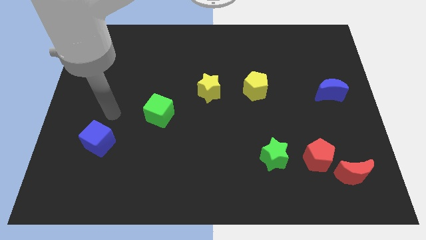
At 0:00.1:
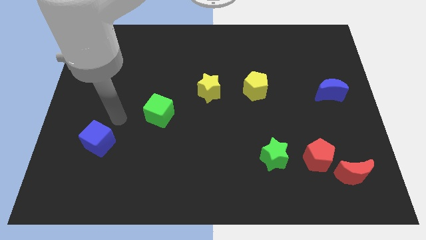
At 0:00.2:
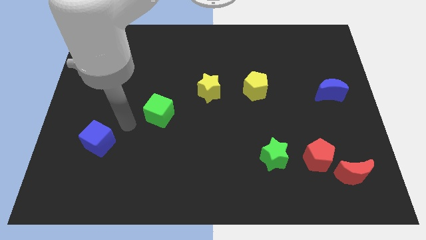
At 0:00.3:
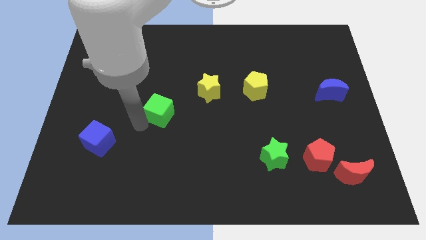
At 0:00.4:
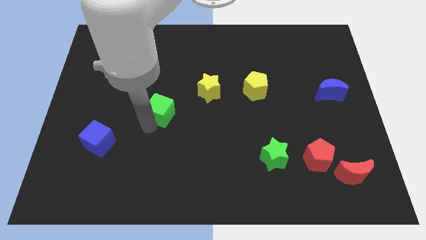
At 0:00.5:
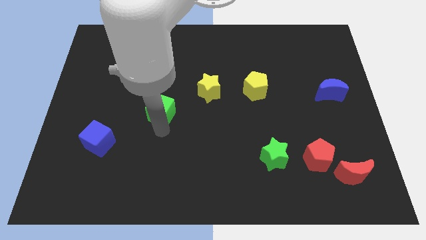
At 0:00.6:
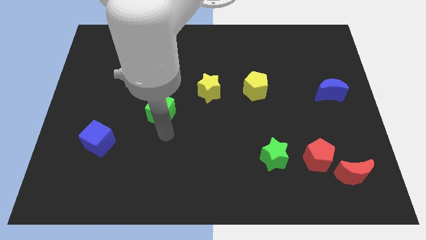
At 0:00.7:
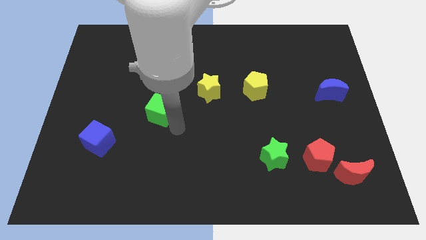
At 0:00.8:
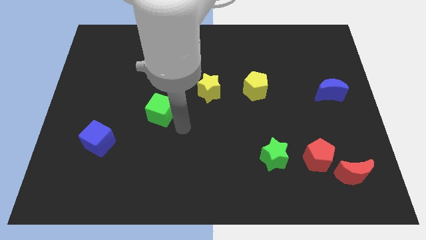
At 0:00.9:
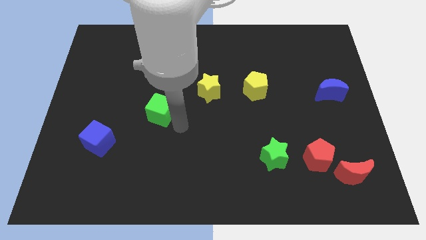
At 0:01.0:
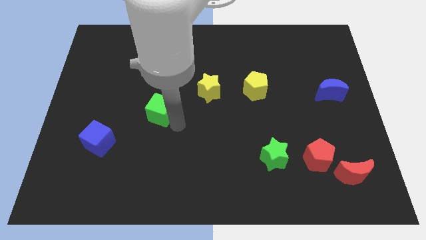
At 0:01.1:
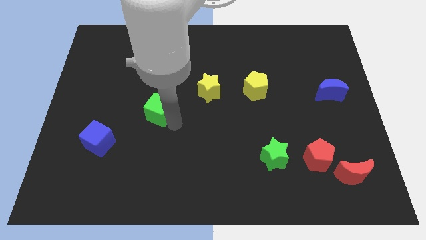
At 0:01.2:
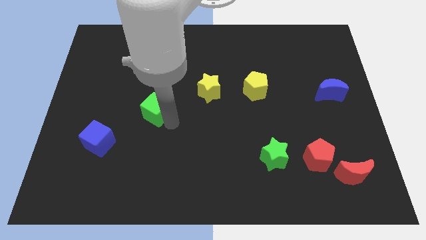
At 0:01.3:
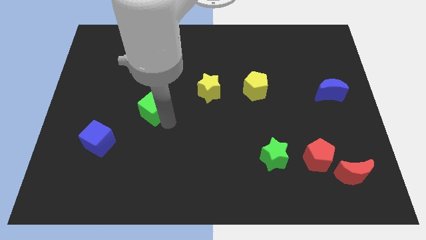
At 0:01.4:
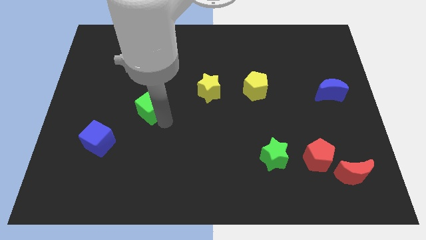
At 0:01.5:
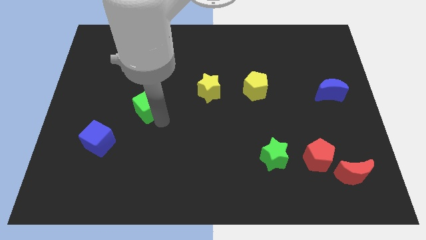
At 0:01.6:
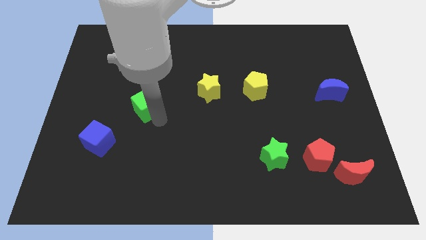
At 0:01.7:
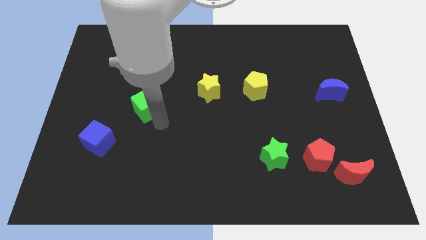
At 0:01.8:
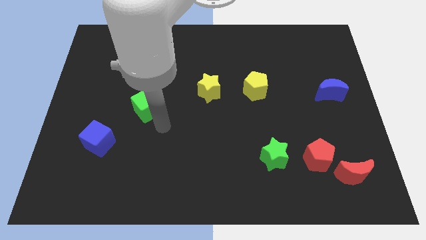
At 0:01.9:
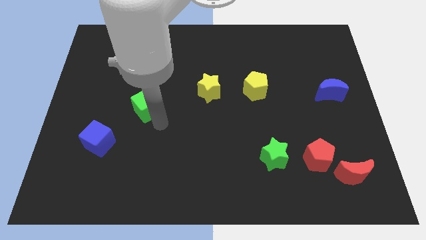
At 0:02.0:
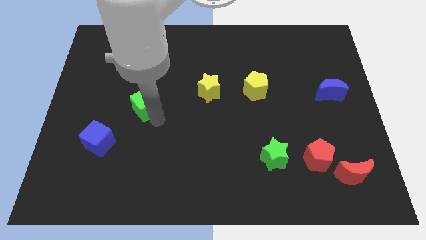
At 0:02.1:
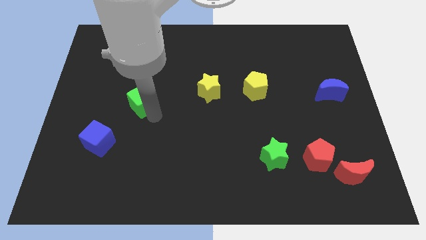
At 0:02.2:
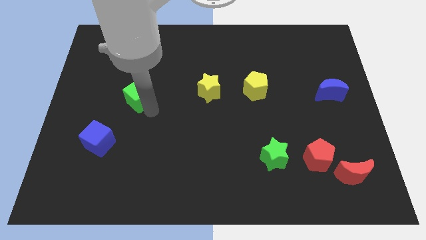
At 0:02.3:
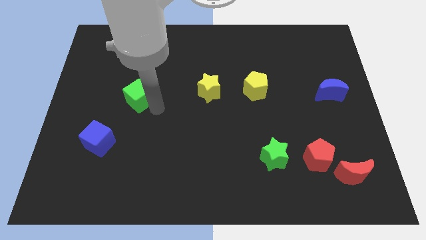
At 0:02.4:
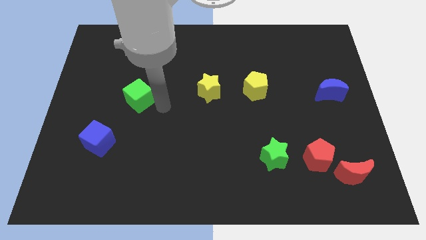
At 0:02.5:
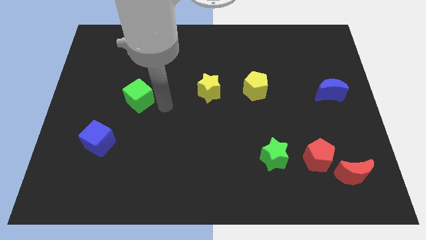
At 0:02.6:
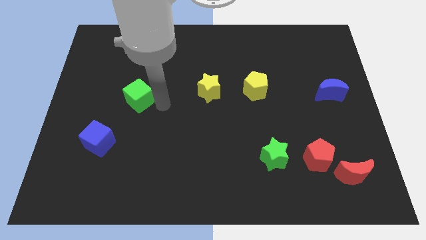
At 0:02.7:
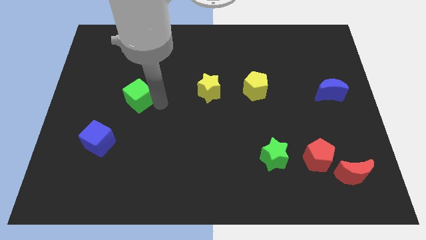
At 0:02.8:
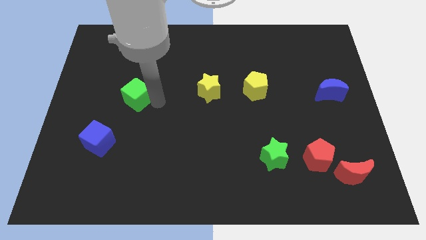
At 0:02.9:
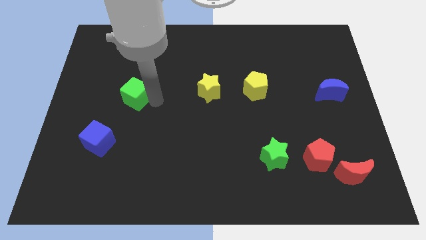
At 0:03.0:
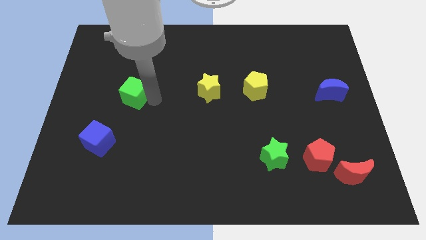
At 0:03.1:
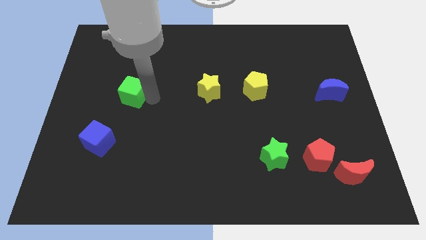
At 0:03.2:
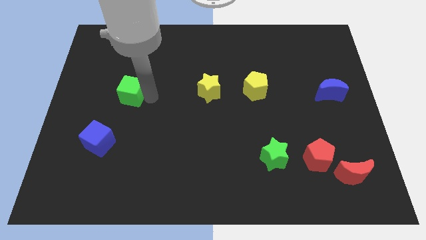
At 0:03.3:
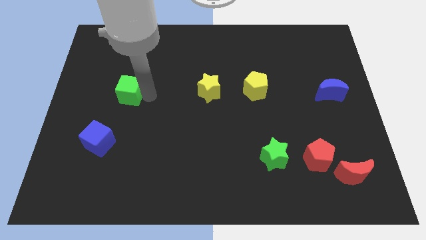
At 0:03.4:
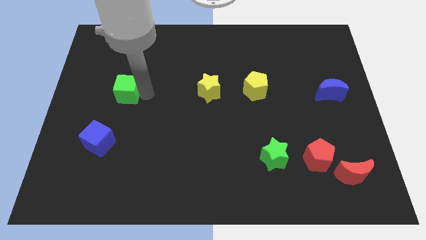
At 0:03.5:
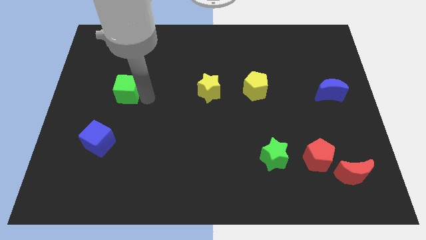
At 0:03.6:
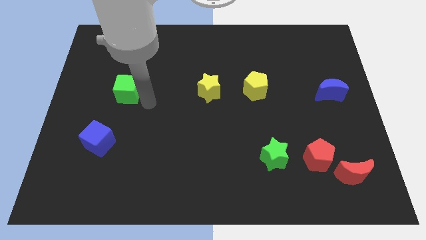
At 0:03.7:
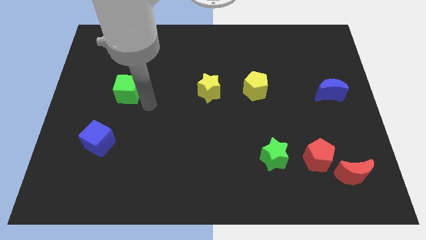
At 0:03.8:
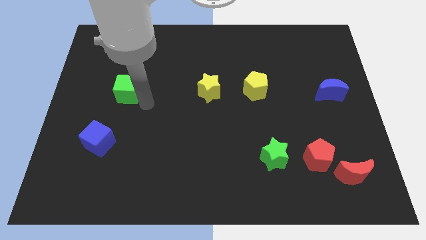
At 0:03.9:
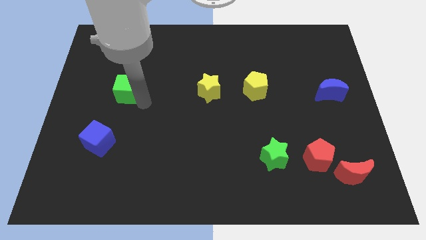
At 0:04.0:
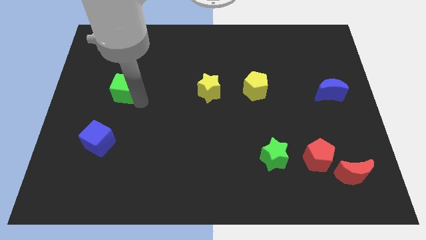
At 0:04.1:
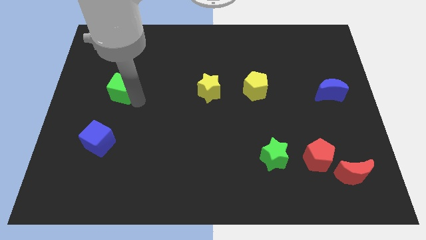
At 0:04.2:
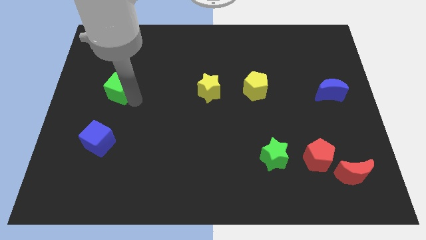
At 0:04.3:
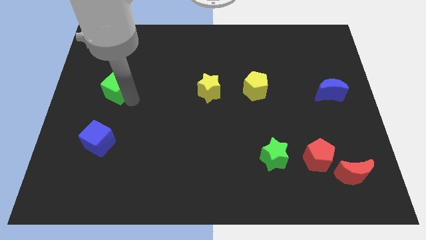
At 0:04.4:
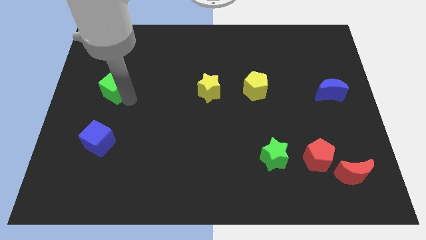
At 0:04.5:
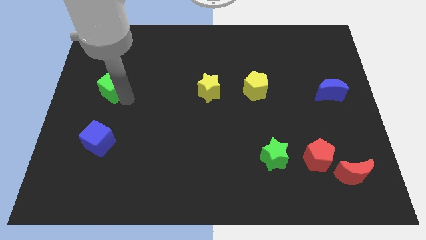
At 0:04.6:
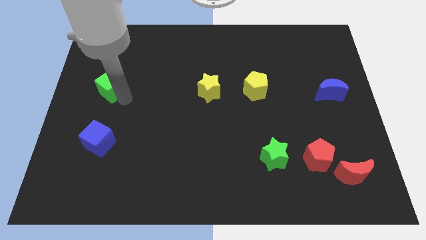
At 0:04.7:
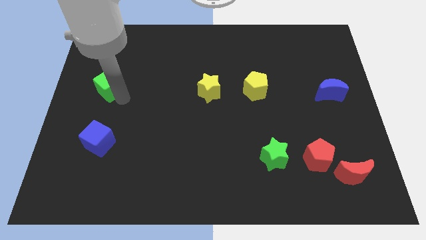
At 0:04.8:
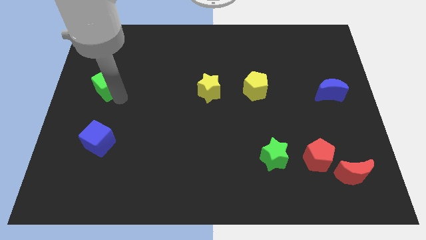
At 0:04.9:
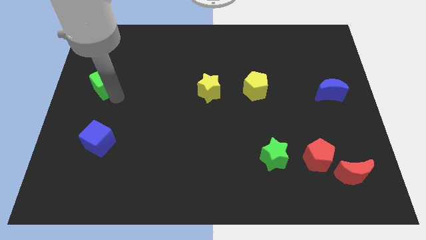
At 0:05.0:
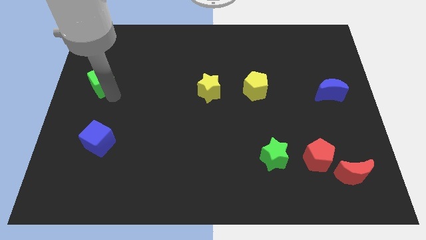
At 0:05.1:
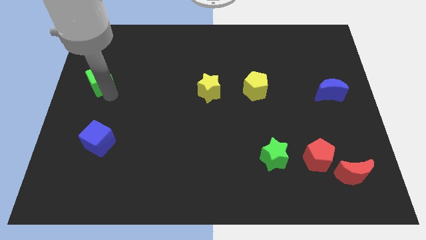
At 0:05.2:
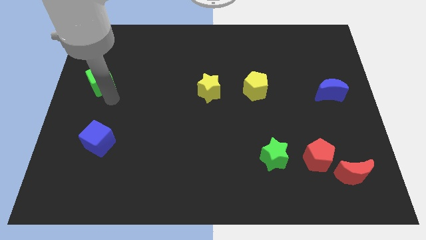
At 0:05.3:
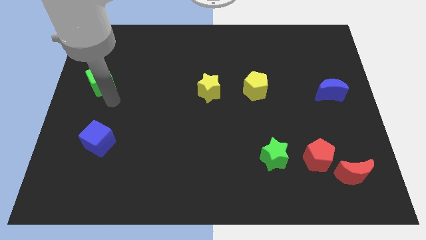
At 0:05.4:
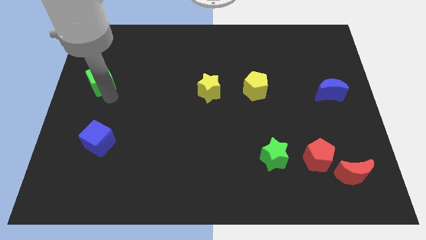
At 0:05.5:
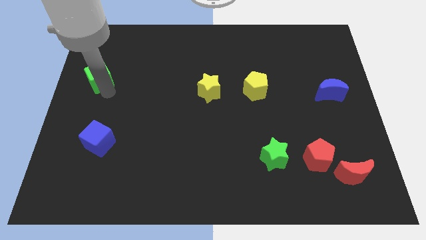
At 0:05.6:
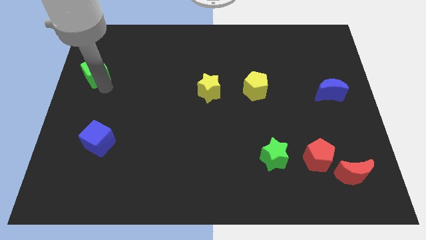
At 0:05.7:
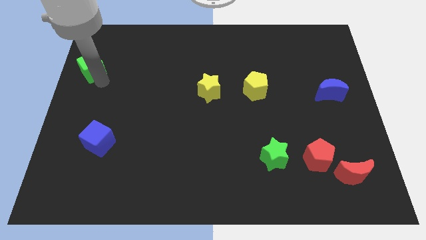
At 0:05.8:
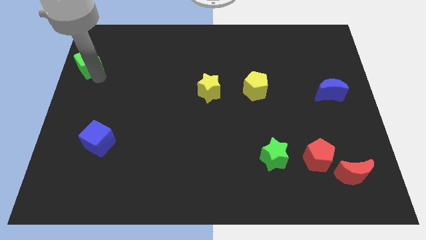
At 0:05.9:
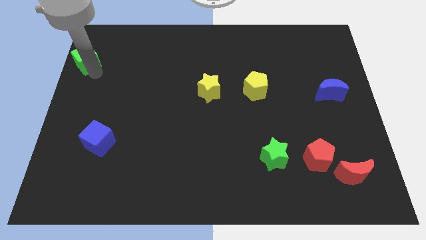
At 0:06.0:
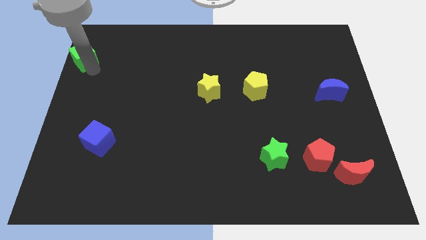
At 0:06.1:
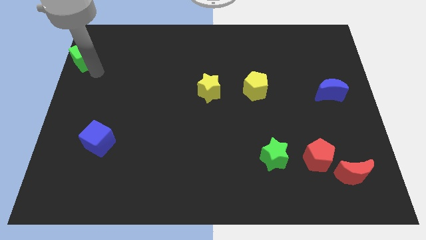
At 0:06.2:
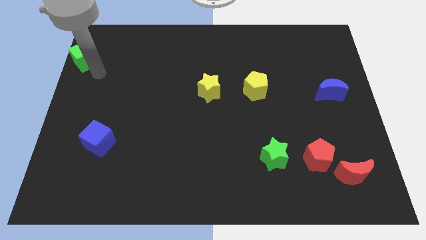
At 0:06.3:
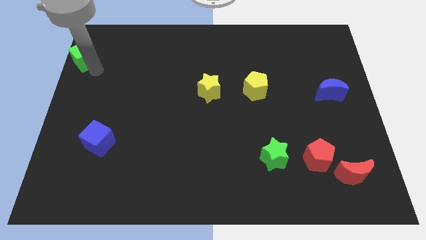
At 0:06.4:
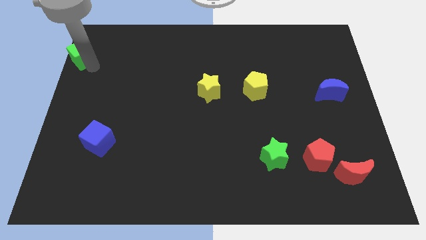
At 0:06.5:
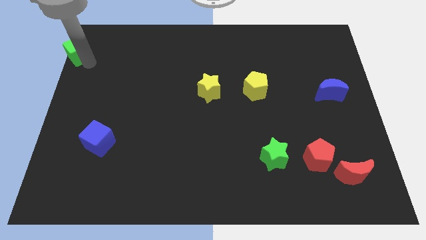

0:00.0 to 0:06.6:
move the green cube to the top left corner
